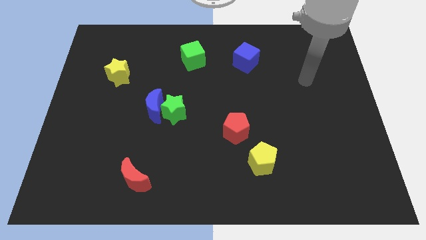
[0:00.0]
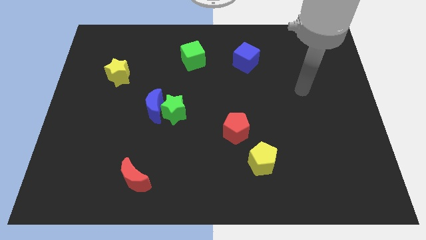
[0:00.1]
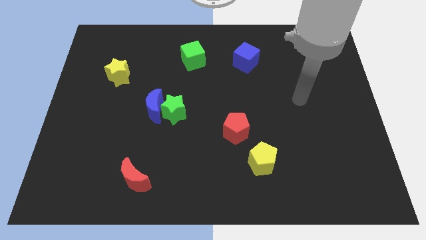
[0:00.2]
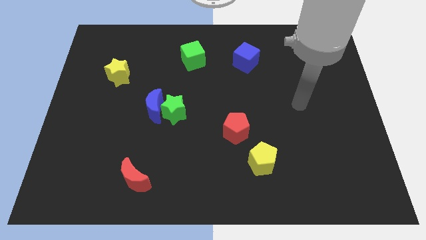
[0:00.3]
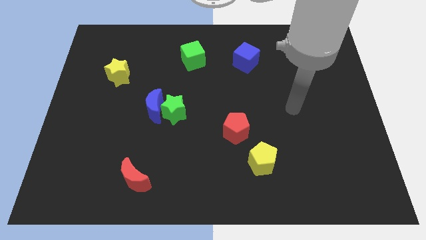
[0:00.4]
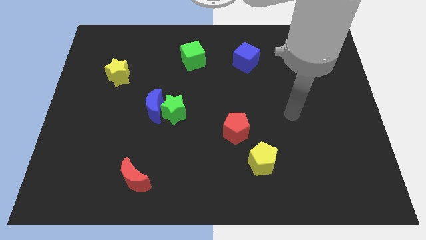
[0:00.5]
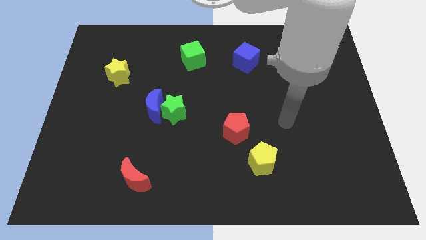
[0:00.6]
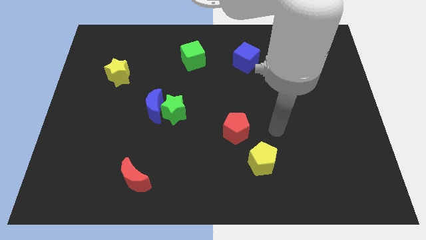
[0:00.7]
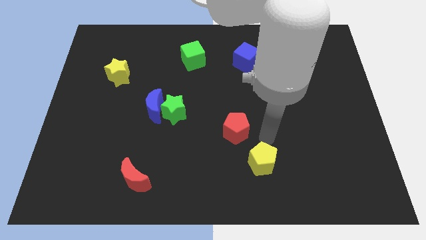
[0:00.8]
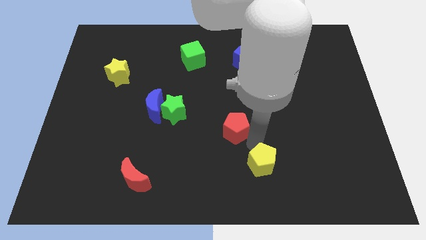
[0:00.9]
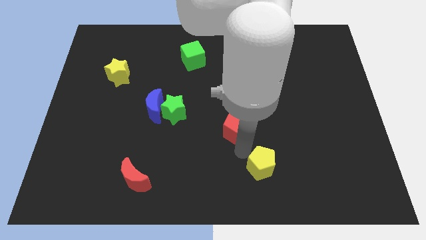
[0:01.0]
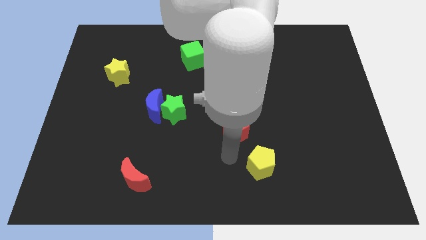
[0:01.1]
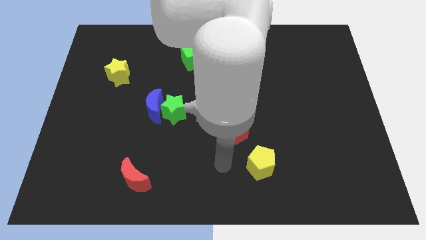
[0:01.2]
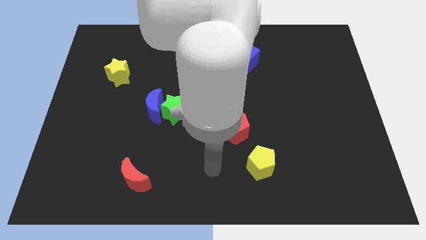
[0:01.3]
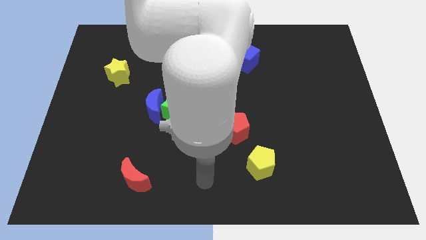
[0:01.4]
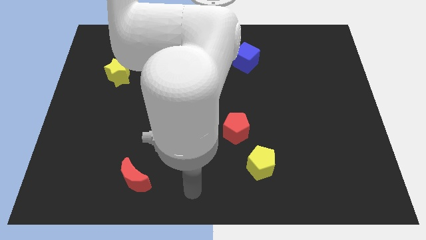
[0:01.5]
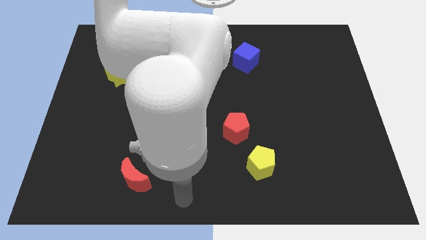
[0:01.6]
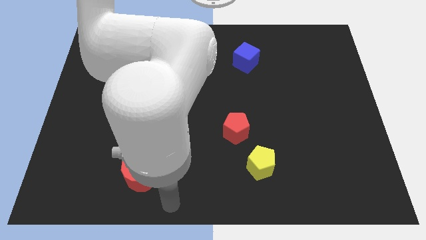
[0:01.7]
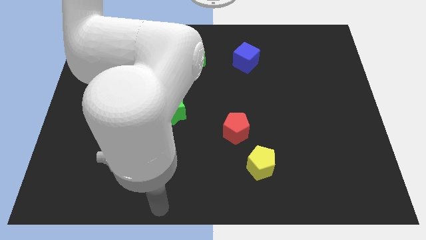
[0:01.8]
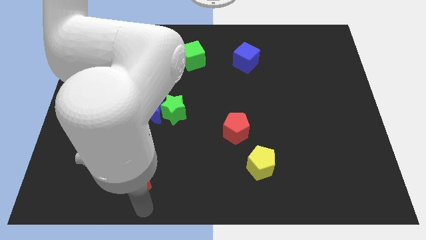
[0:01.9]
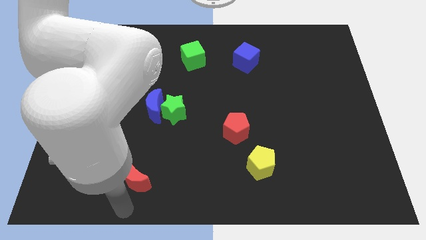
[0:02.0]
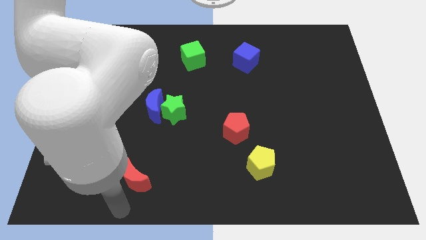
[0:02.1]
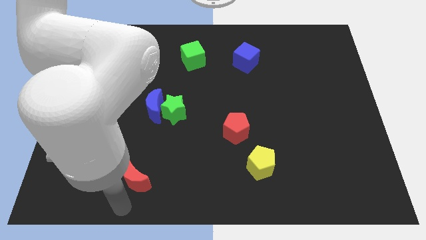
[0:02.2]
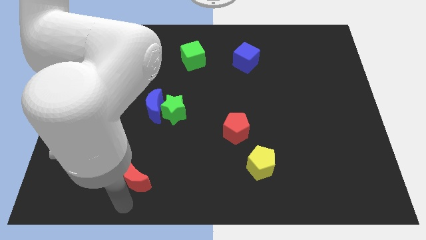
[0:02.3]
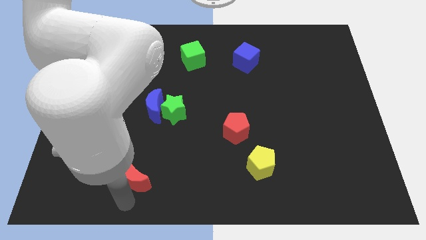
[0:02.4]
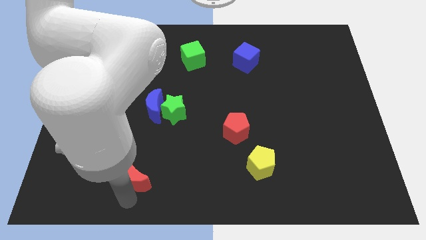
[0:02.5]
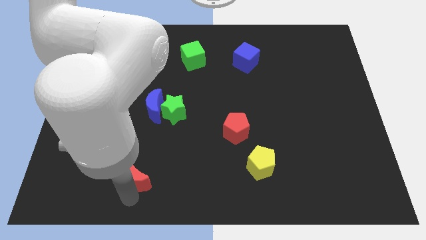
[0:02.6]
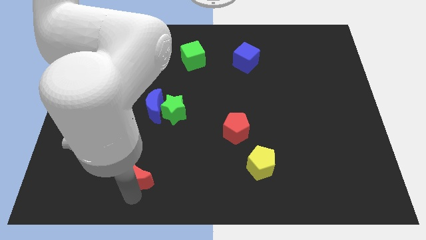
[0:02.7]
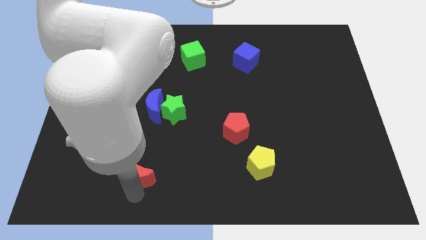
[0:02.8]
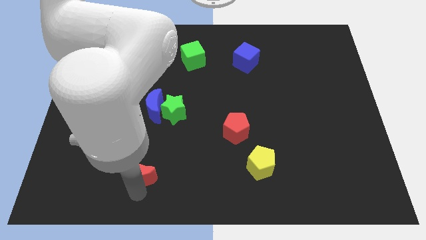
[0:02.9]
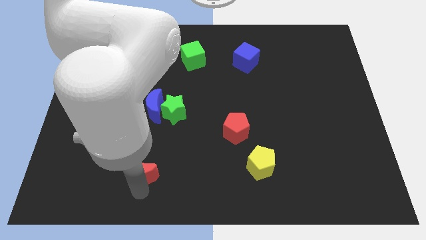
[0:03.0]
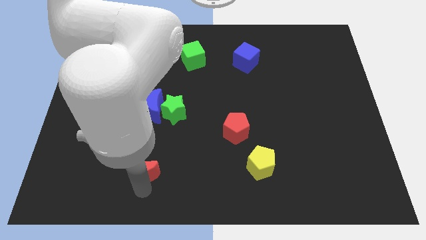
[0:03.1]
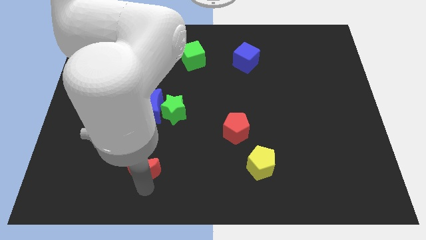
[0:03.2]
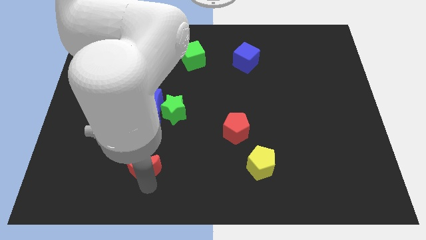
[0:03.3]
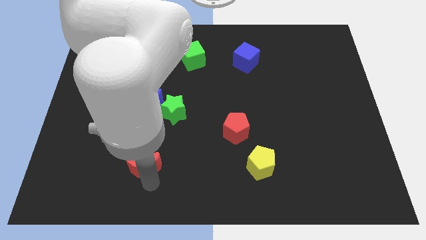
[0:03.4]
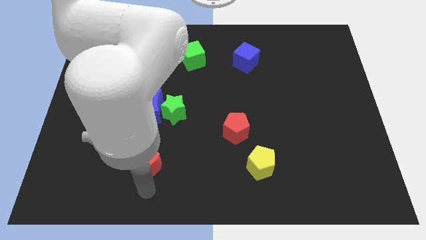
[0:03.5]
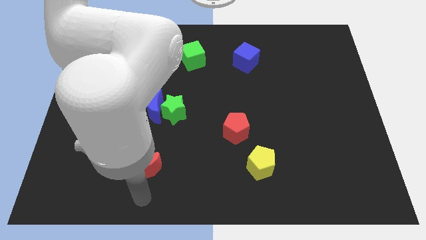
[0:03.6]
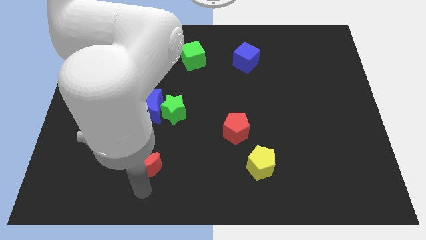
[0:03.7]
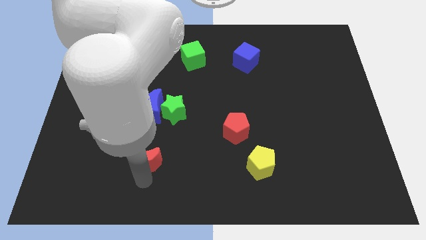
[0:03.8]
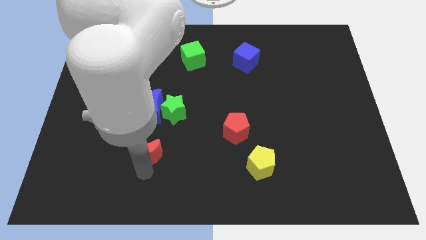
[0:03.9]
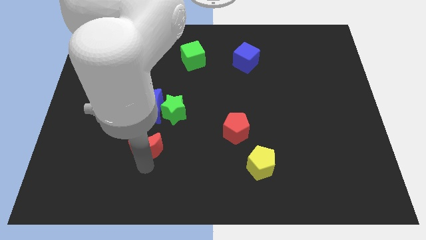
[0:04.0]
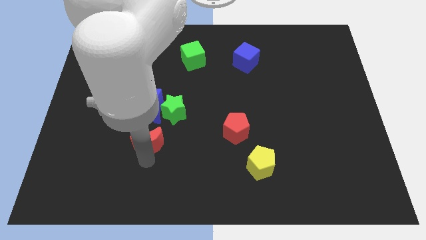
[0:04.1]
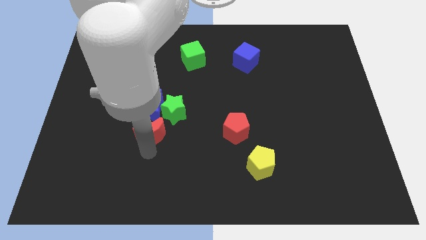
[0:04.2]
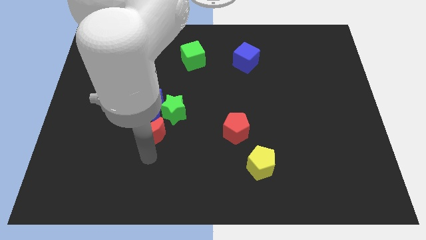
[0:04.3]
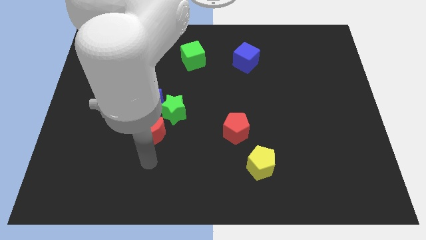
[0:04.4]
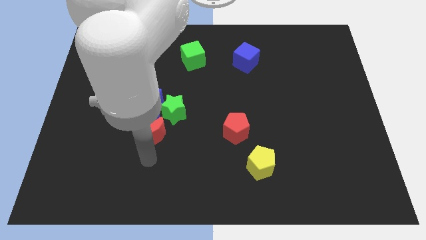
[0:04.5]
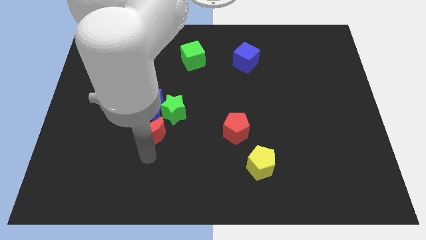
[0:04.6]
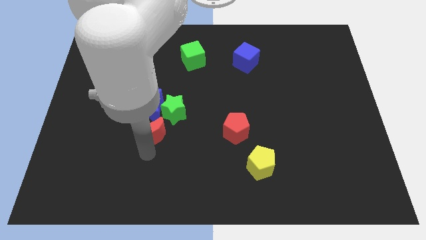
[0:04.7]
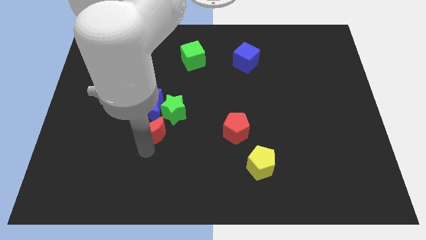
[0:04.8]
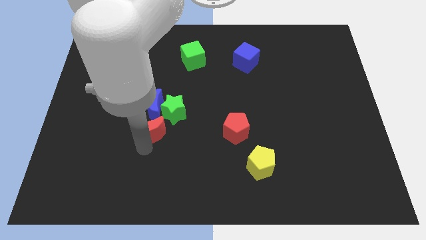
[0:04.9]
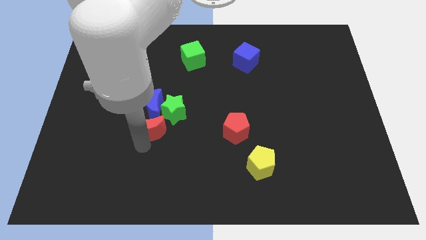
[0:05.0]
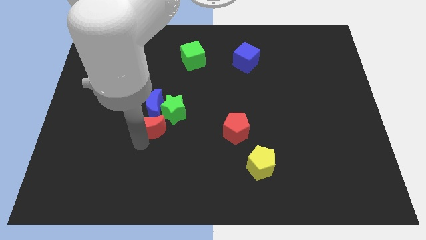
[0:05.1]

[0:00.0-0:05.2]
push the red moon to the blue moon

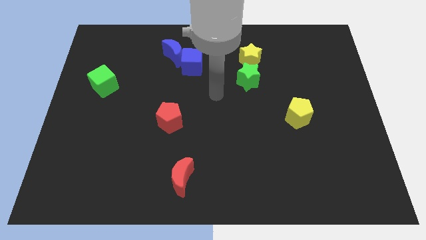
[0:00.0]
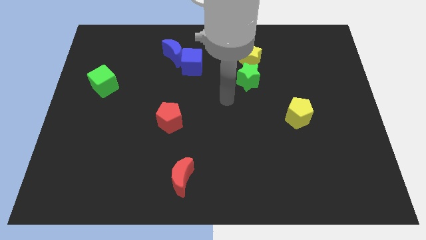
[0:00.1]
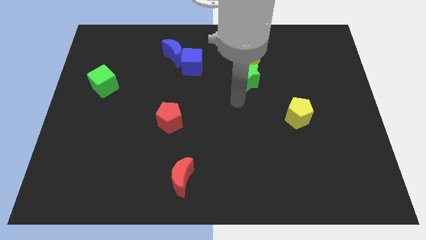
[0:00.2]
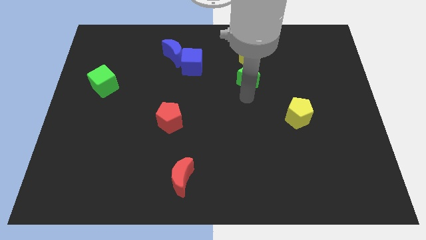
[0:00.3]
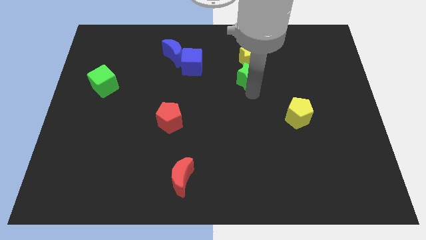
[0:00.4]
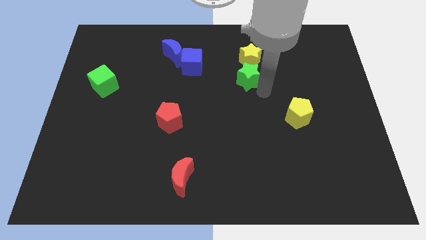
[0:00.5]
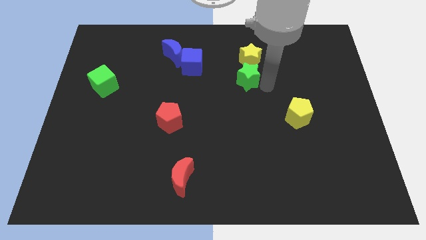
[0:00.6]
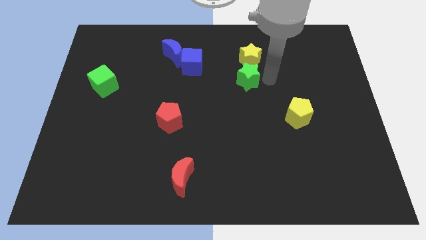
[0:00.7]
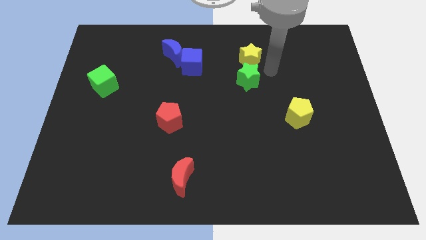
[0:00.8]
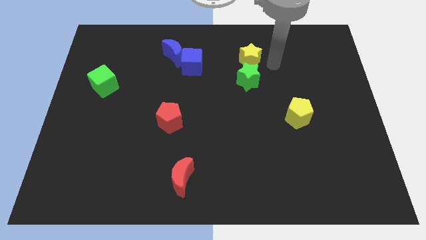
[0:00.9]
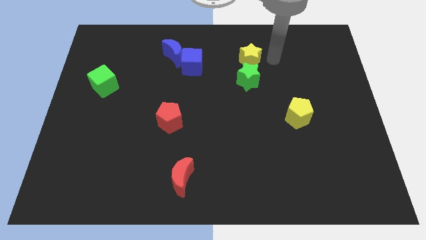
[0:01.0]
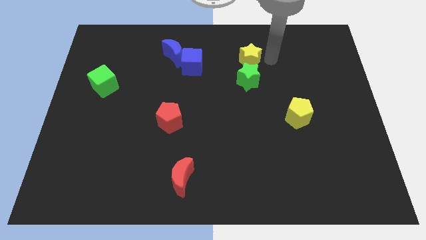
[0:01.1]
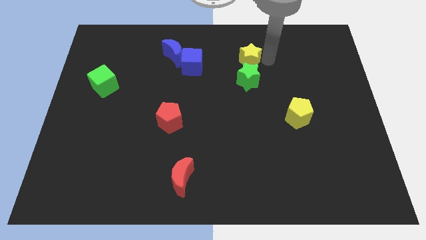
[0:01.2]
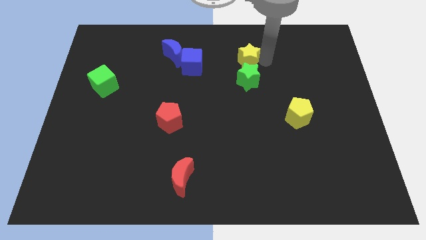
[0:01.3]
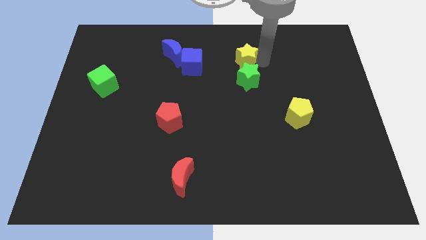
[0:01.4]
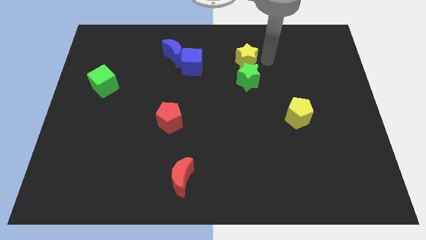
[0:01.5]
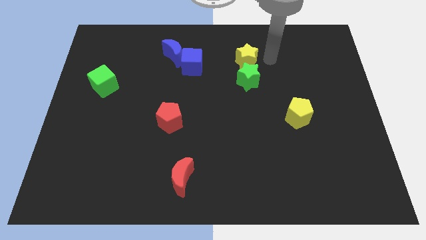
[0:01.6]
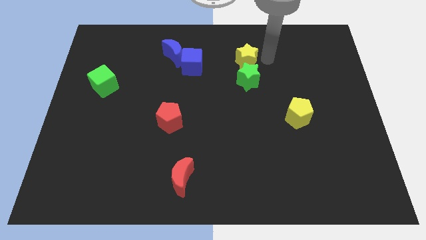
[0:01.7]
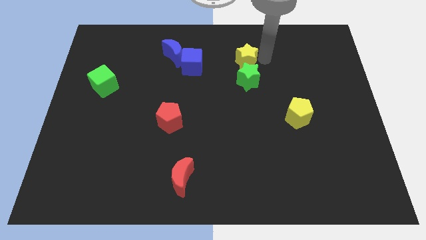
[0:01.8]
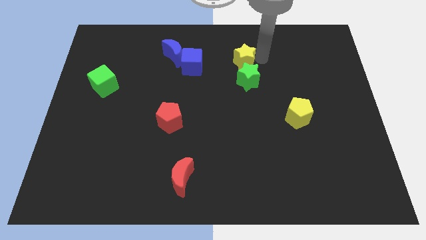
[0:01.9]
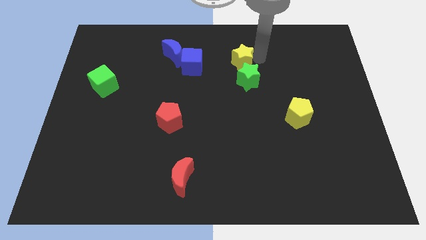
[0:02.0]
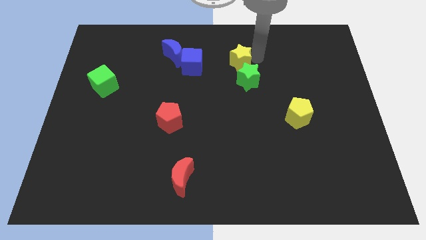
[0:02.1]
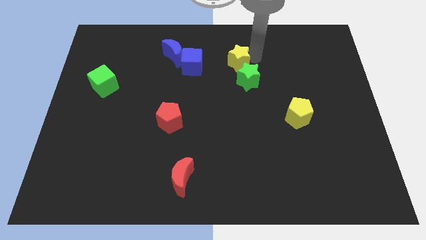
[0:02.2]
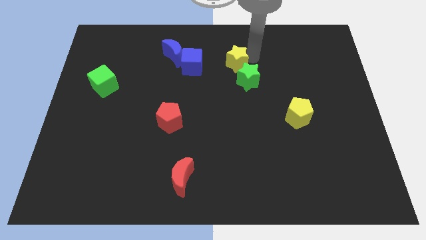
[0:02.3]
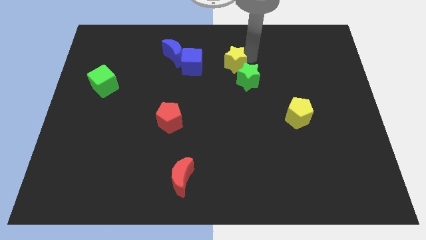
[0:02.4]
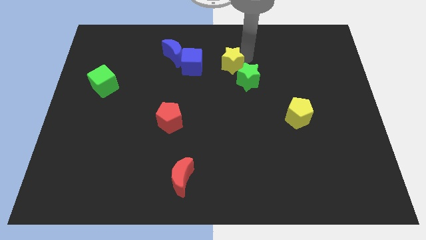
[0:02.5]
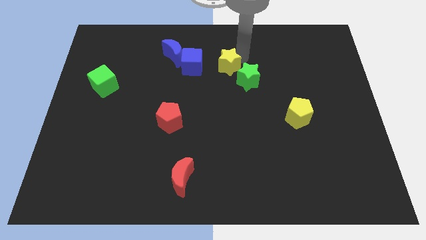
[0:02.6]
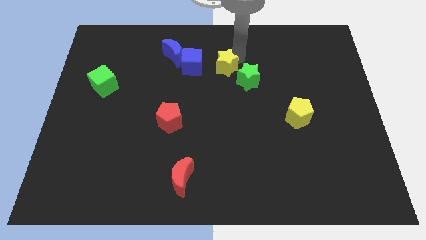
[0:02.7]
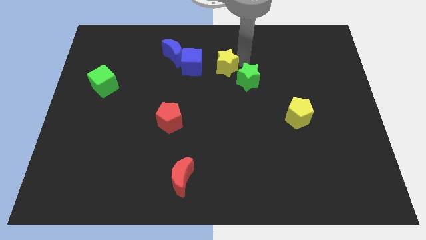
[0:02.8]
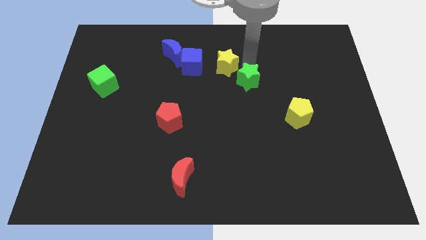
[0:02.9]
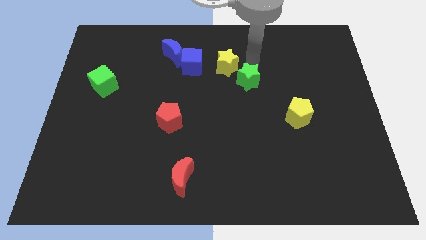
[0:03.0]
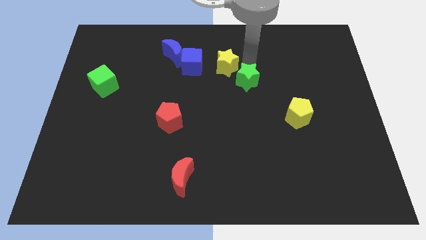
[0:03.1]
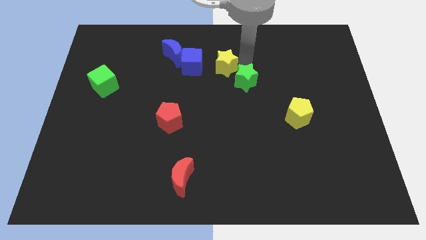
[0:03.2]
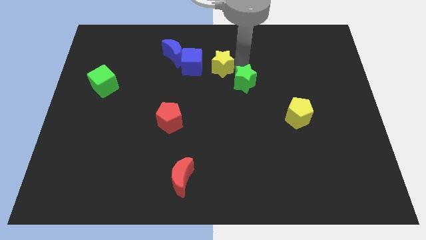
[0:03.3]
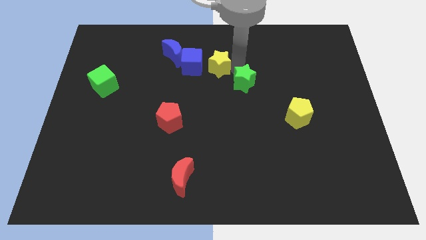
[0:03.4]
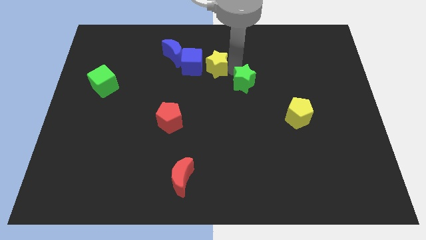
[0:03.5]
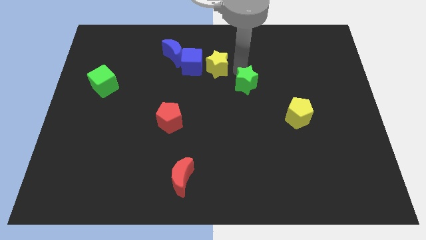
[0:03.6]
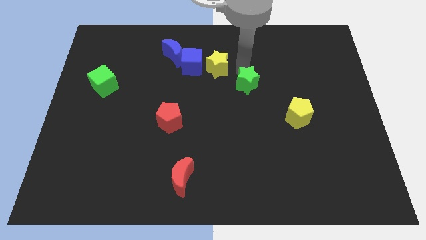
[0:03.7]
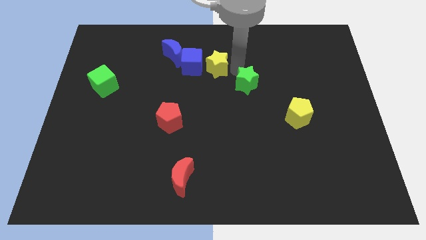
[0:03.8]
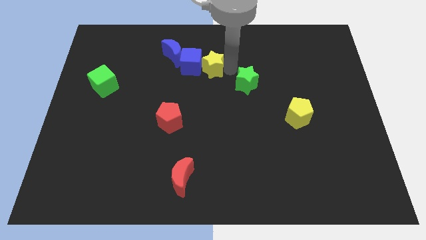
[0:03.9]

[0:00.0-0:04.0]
slide the yellow star towards the blue cube
